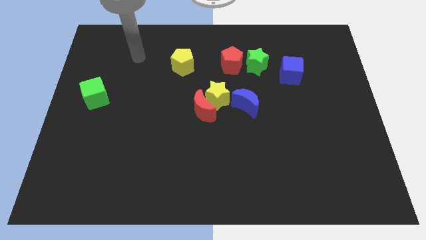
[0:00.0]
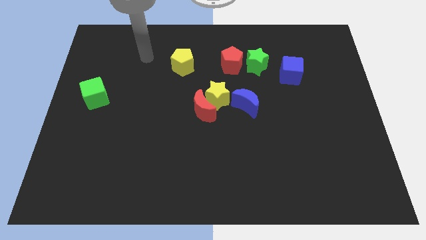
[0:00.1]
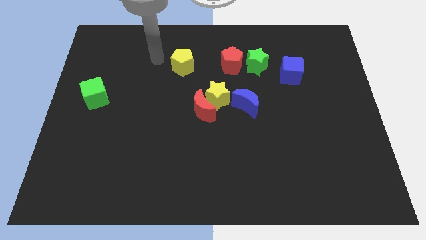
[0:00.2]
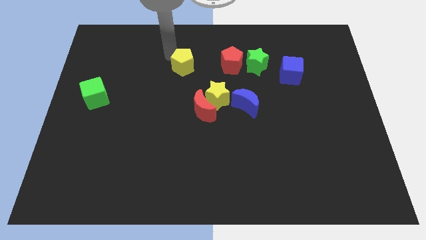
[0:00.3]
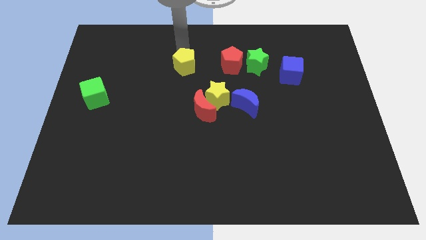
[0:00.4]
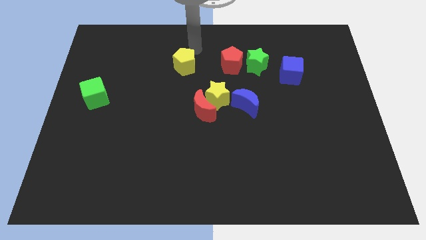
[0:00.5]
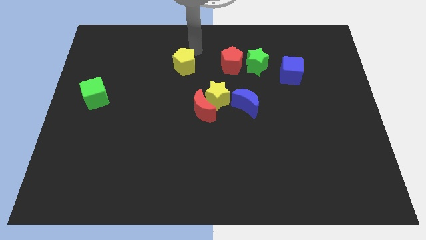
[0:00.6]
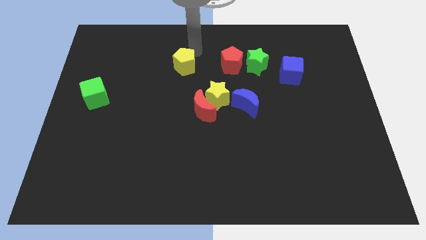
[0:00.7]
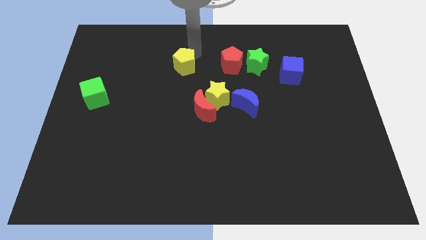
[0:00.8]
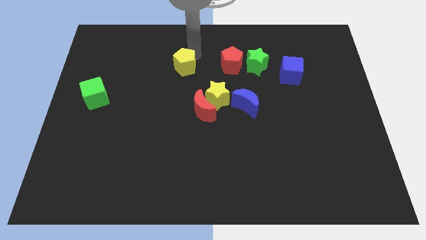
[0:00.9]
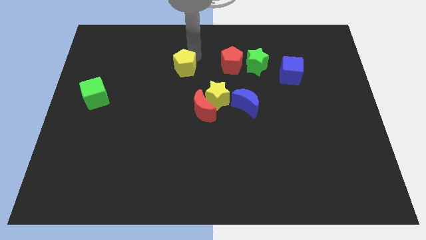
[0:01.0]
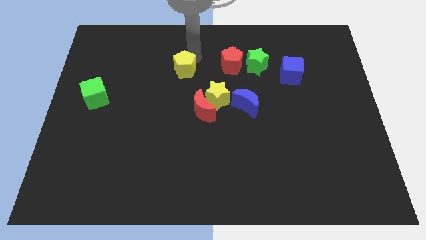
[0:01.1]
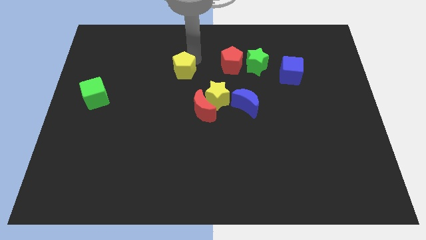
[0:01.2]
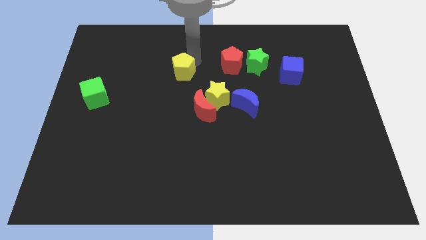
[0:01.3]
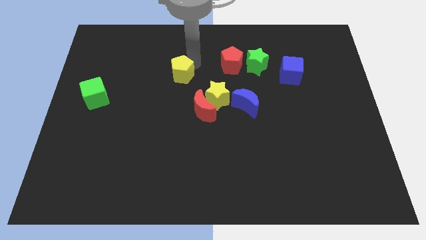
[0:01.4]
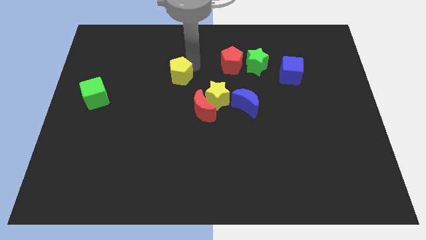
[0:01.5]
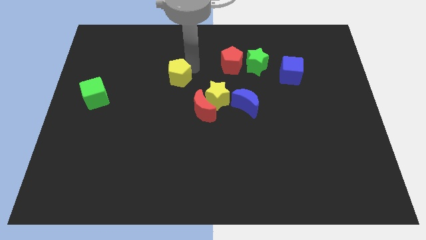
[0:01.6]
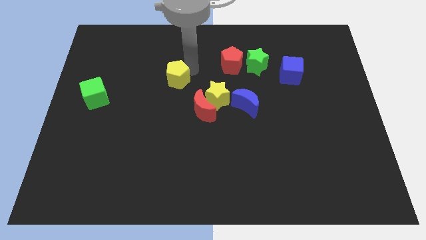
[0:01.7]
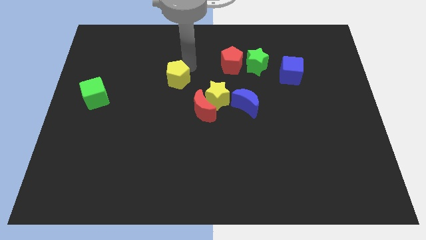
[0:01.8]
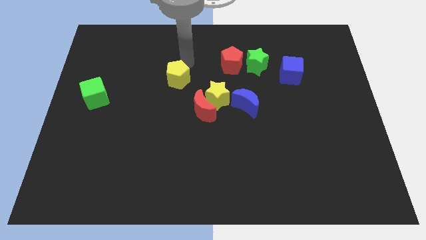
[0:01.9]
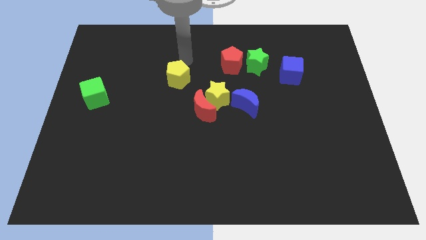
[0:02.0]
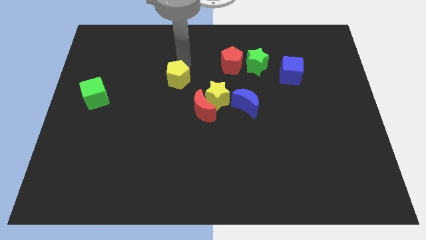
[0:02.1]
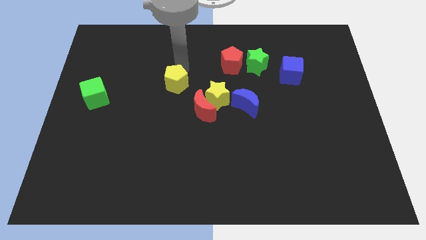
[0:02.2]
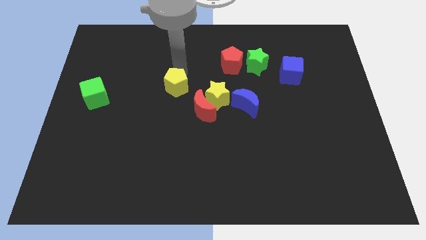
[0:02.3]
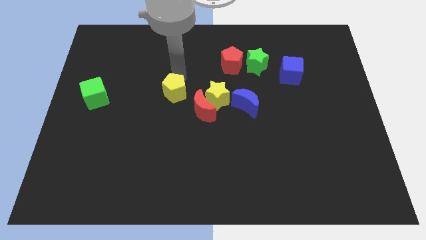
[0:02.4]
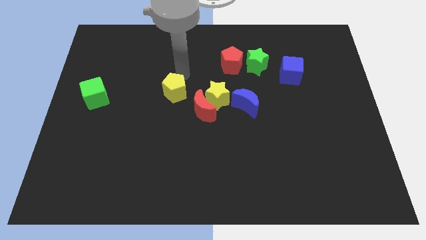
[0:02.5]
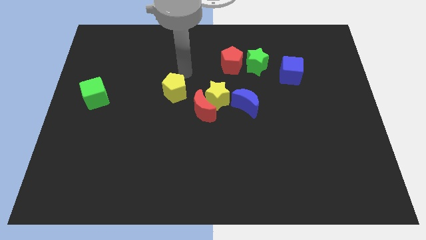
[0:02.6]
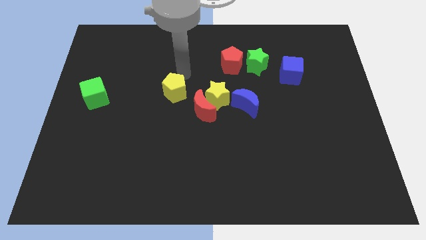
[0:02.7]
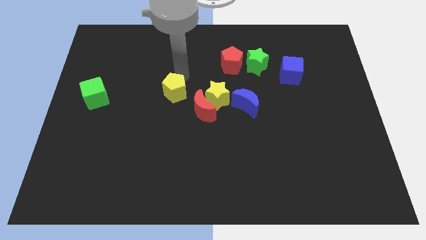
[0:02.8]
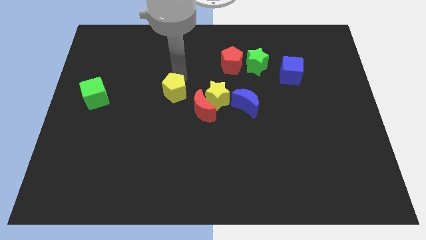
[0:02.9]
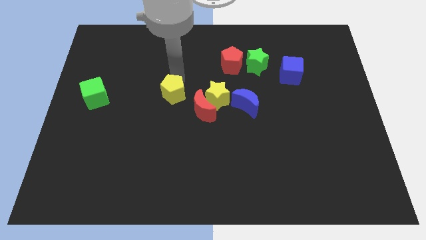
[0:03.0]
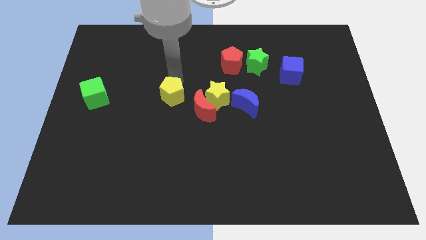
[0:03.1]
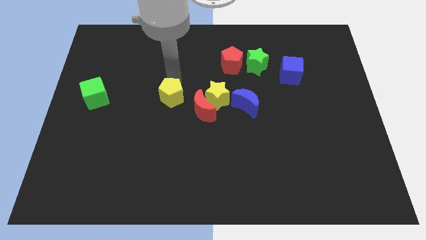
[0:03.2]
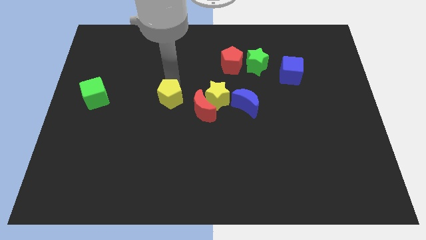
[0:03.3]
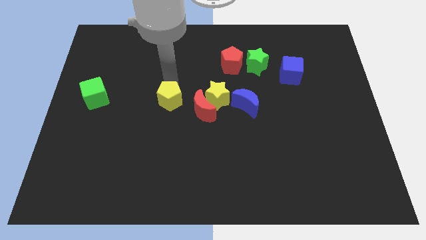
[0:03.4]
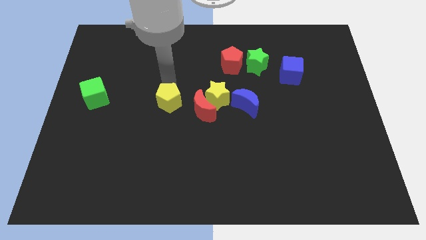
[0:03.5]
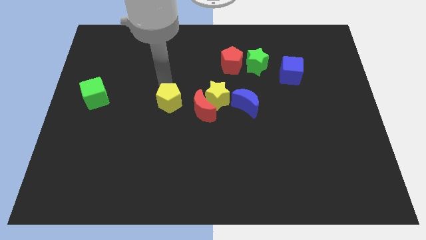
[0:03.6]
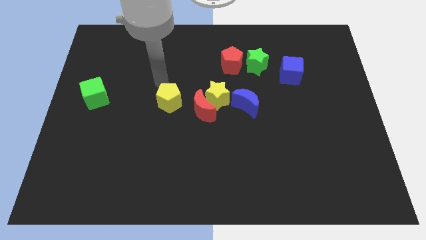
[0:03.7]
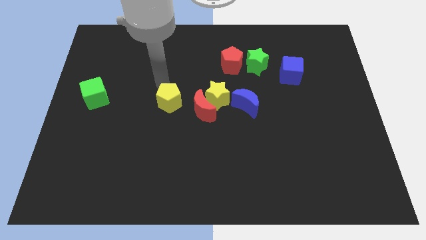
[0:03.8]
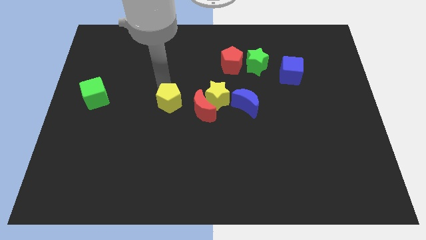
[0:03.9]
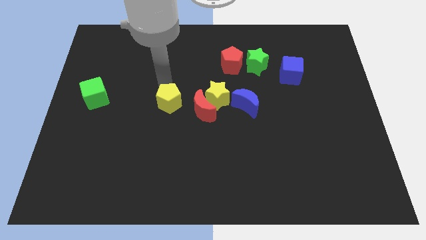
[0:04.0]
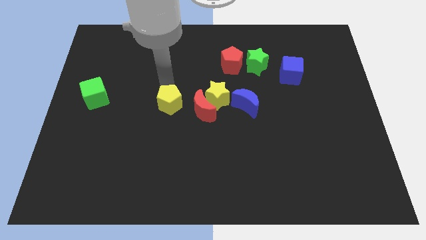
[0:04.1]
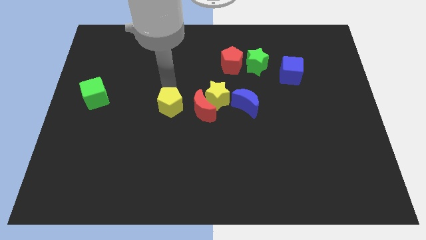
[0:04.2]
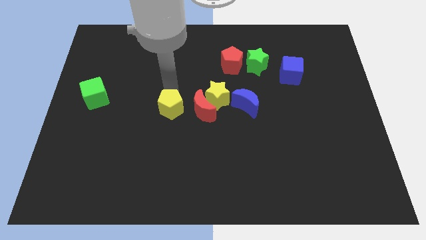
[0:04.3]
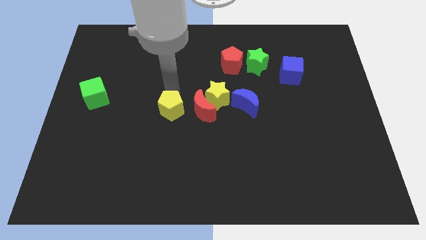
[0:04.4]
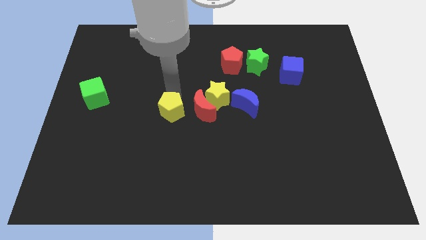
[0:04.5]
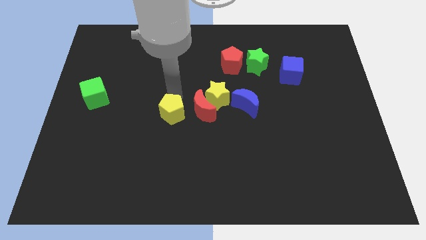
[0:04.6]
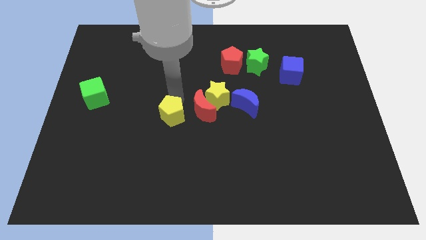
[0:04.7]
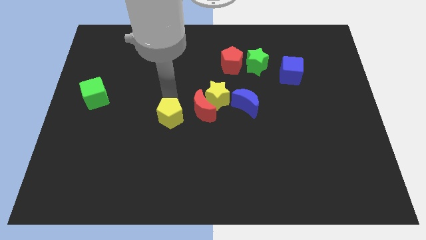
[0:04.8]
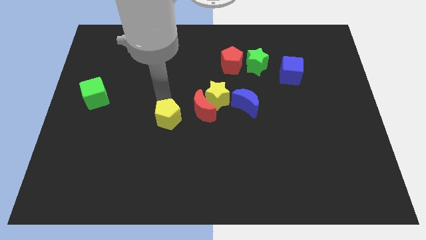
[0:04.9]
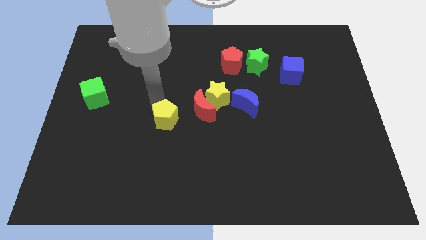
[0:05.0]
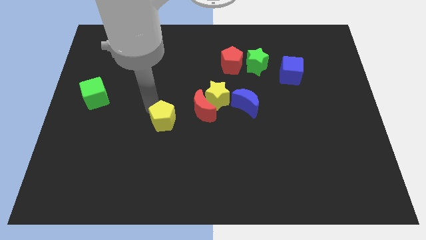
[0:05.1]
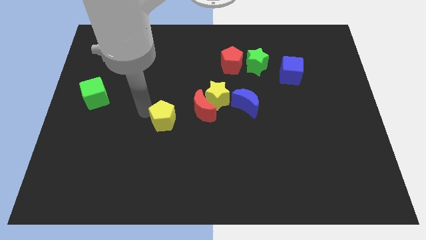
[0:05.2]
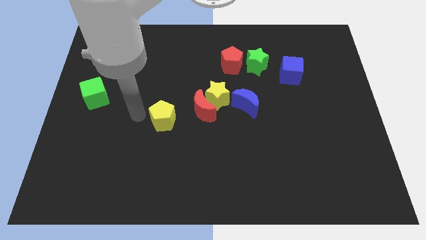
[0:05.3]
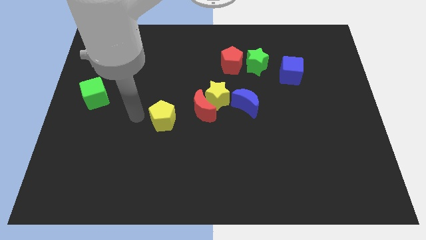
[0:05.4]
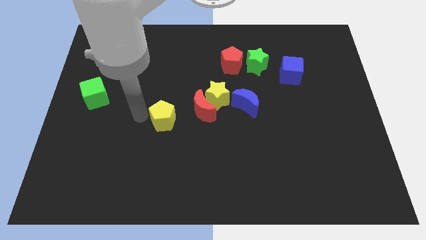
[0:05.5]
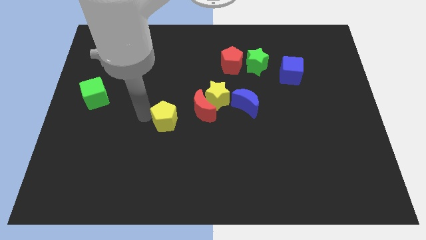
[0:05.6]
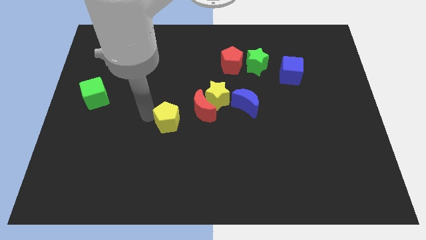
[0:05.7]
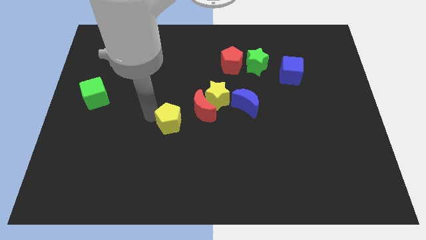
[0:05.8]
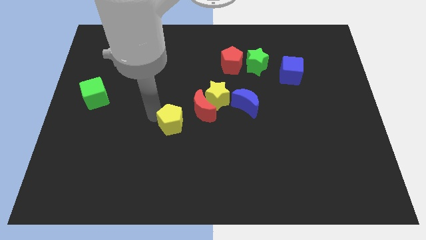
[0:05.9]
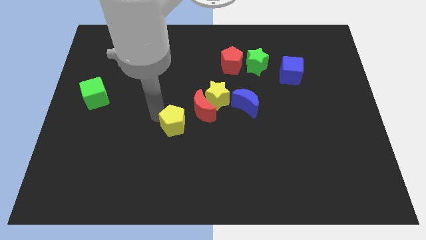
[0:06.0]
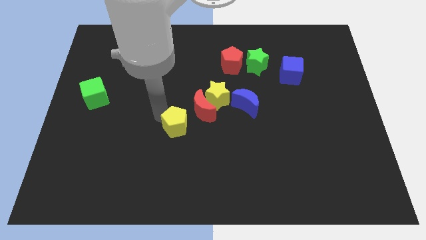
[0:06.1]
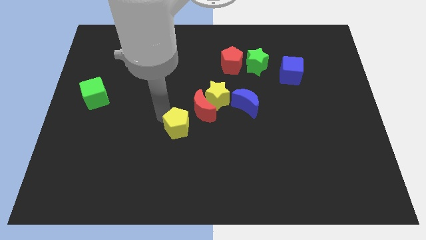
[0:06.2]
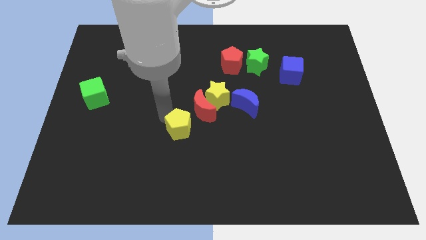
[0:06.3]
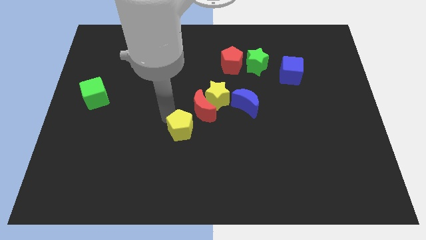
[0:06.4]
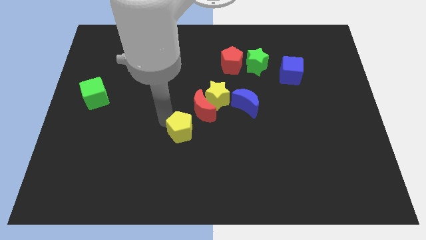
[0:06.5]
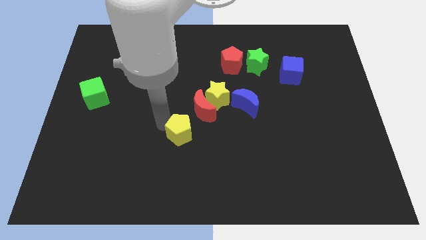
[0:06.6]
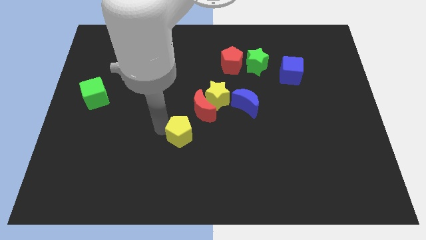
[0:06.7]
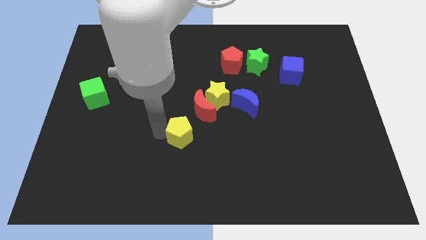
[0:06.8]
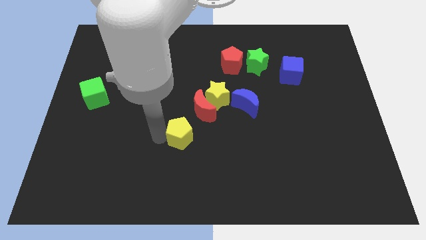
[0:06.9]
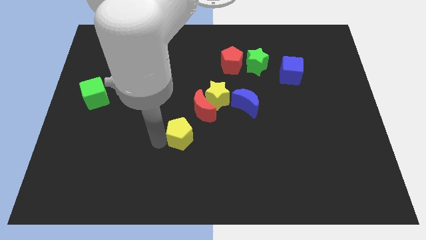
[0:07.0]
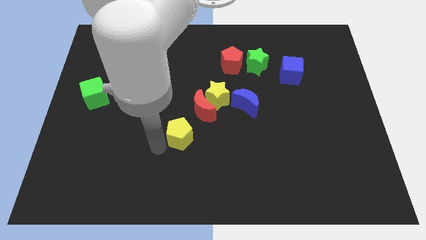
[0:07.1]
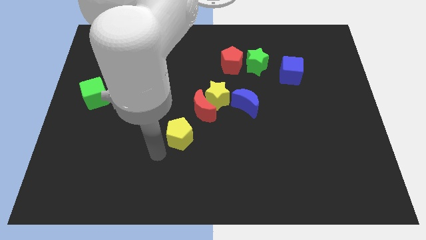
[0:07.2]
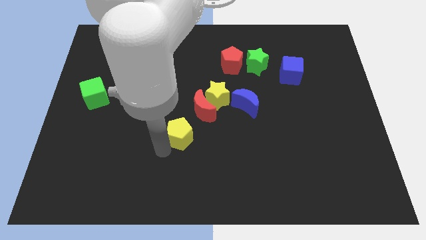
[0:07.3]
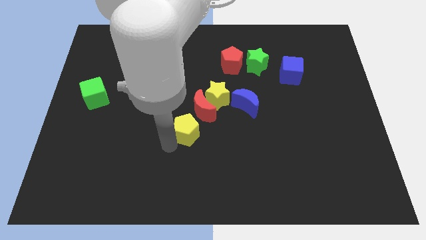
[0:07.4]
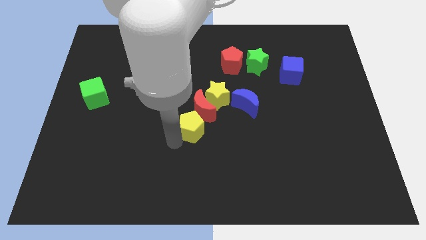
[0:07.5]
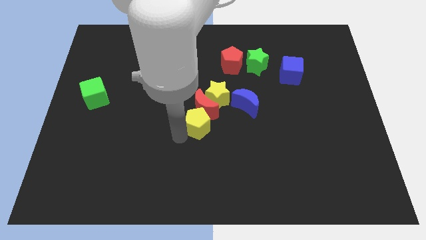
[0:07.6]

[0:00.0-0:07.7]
put the yellow pentagon to the bottom side of the yellow star
